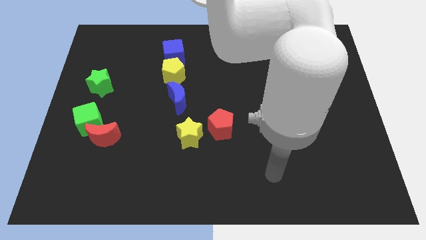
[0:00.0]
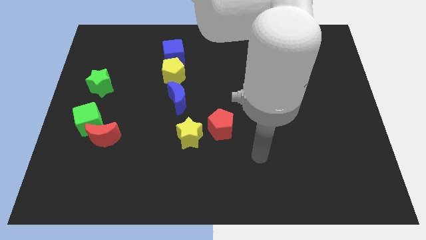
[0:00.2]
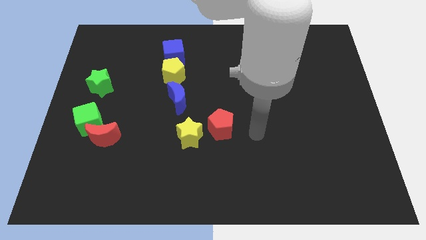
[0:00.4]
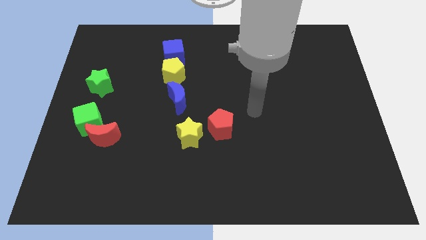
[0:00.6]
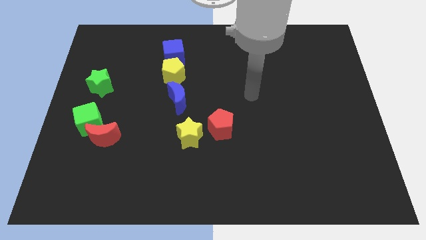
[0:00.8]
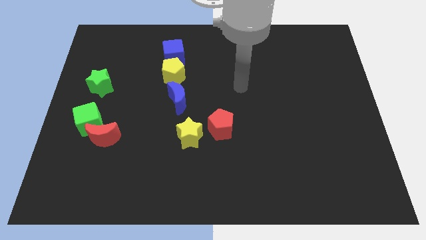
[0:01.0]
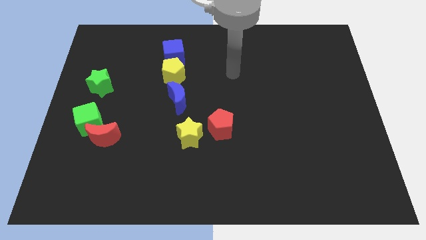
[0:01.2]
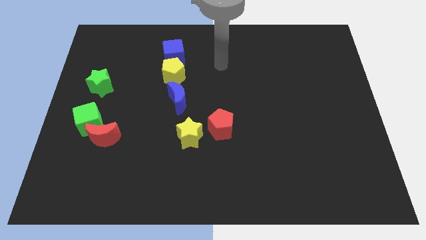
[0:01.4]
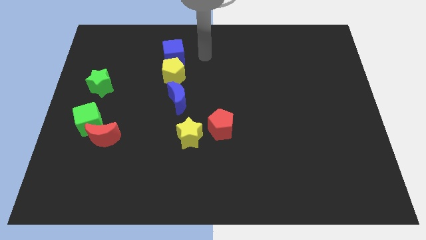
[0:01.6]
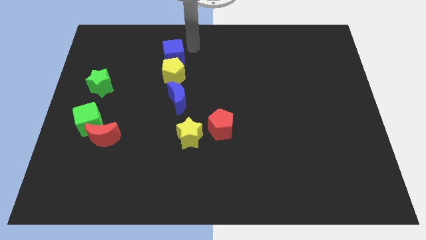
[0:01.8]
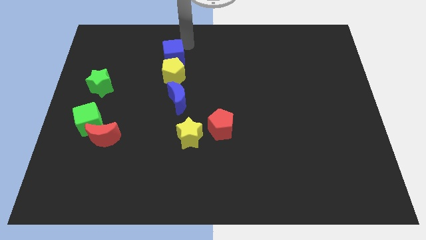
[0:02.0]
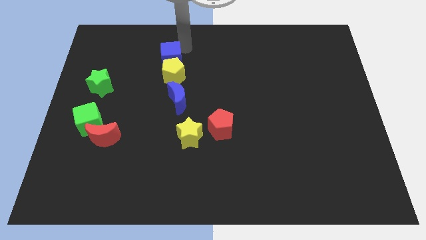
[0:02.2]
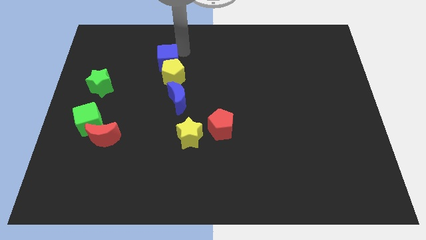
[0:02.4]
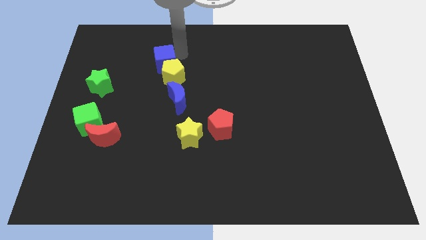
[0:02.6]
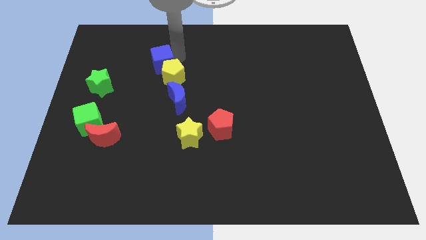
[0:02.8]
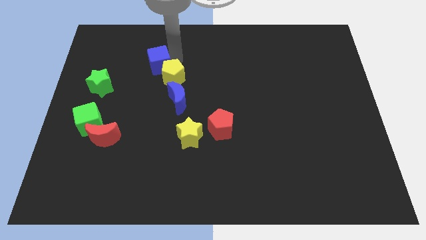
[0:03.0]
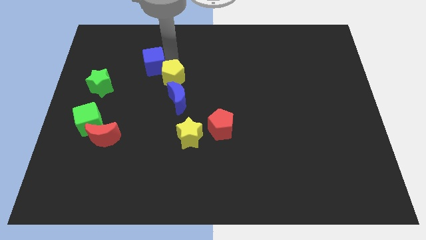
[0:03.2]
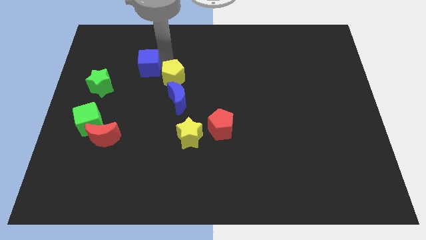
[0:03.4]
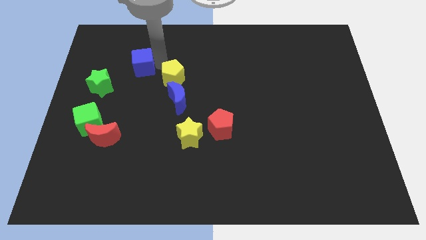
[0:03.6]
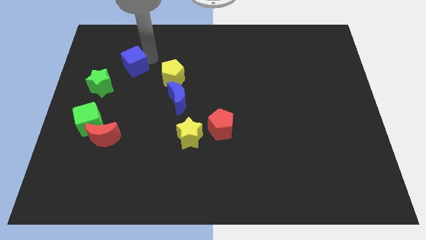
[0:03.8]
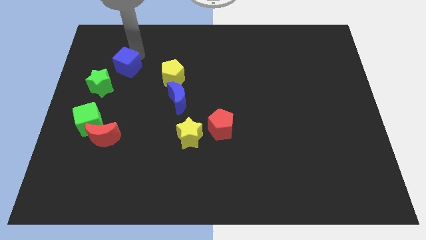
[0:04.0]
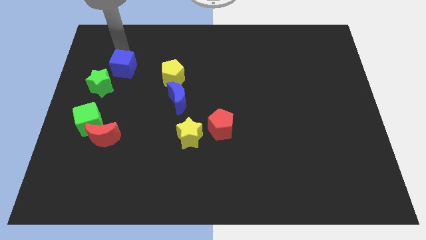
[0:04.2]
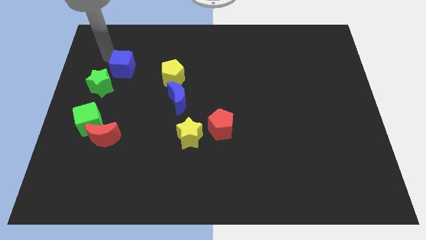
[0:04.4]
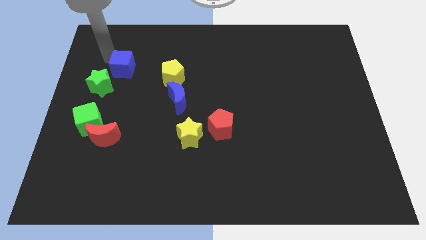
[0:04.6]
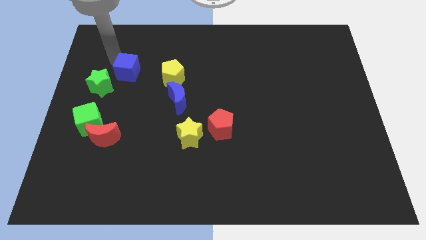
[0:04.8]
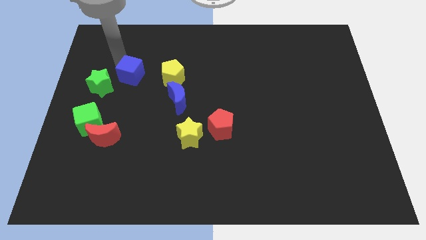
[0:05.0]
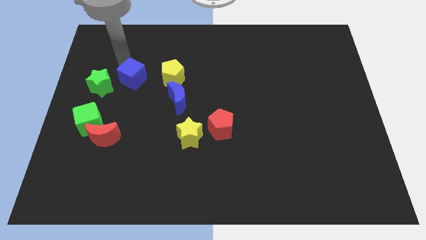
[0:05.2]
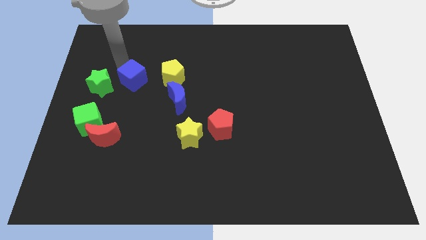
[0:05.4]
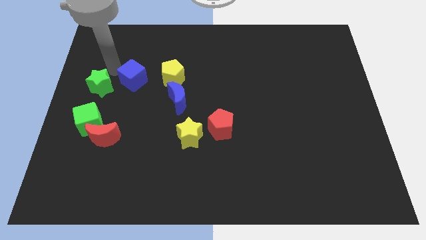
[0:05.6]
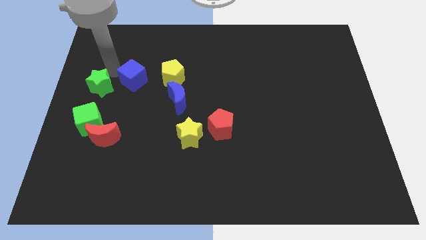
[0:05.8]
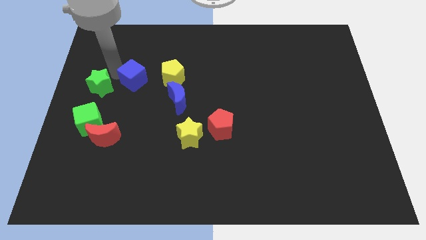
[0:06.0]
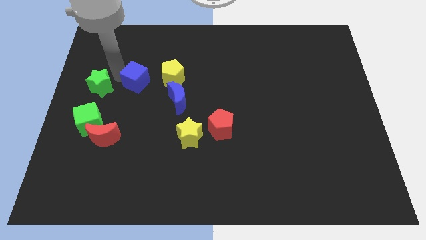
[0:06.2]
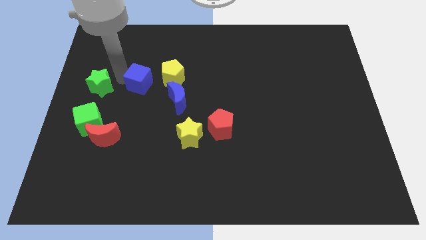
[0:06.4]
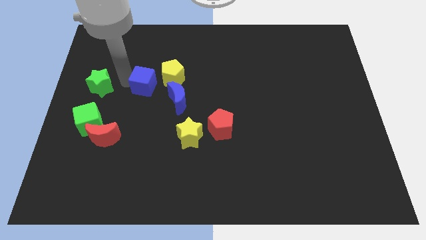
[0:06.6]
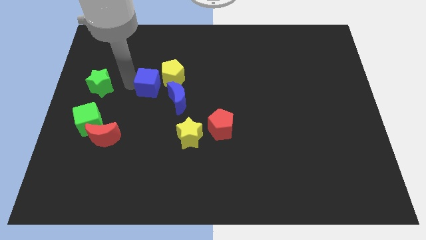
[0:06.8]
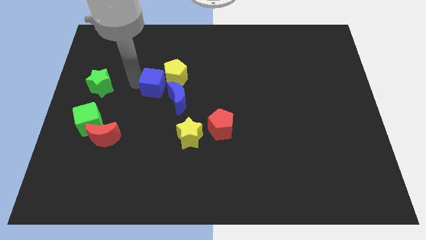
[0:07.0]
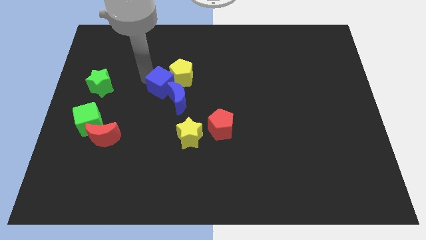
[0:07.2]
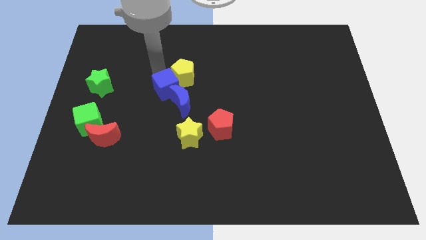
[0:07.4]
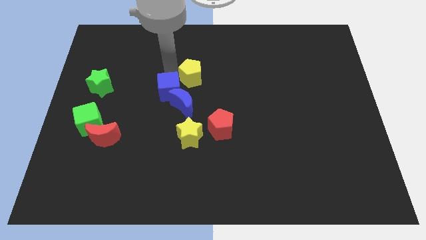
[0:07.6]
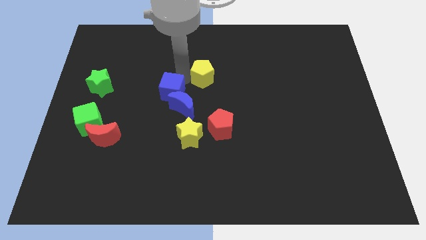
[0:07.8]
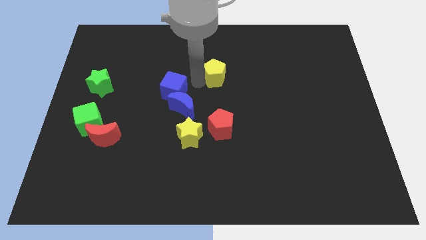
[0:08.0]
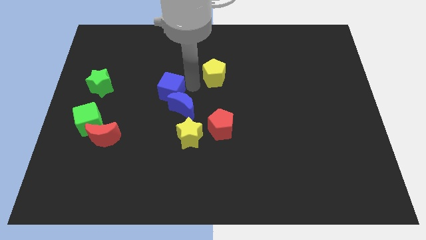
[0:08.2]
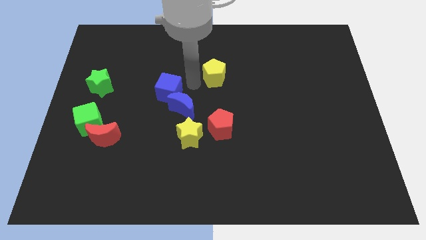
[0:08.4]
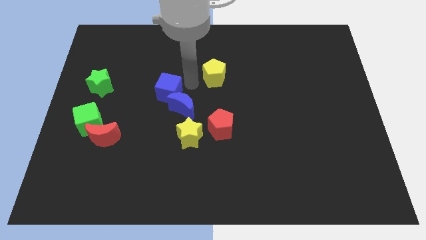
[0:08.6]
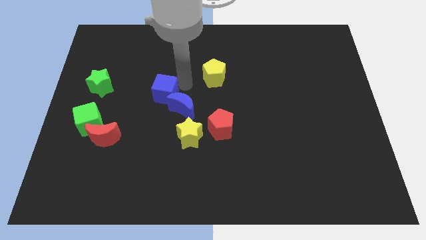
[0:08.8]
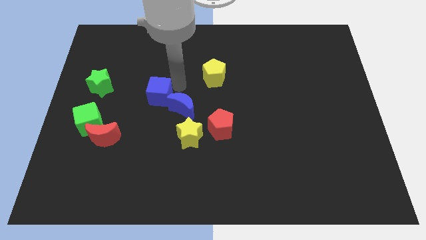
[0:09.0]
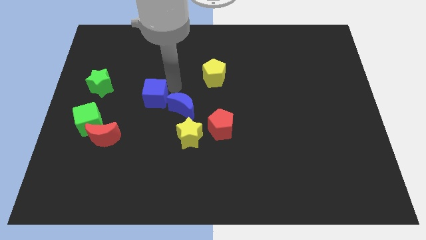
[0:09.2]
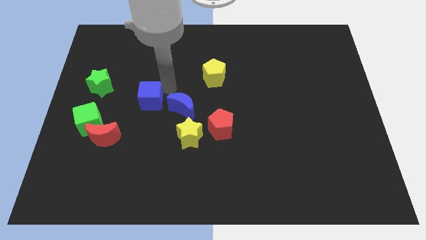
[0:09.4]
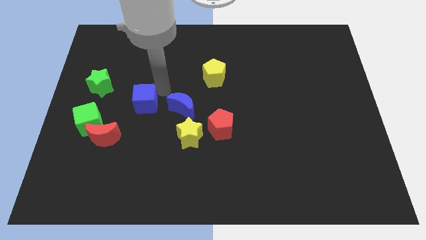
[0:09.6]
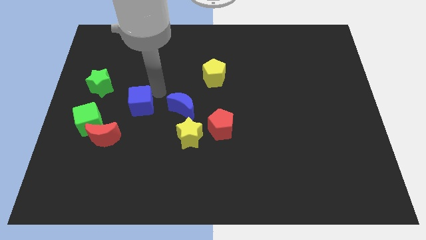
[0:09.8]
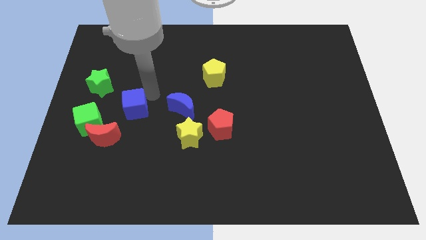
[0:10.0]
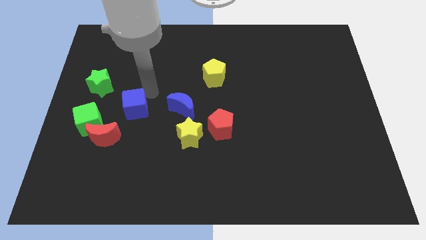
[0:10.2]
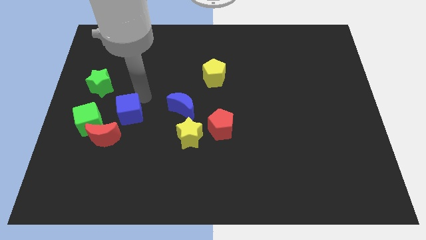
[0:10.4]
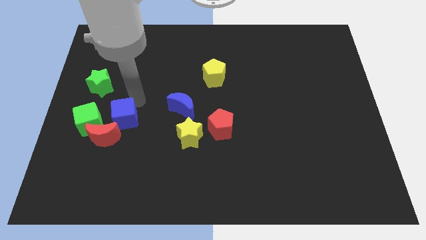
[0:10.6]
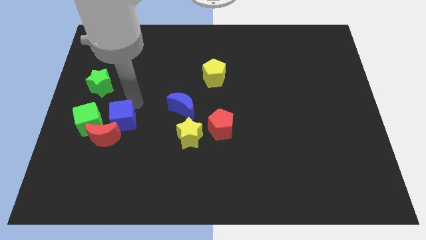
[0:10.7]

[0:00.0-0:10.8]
put the blue cube towards the red moon

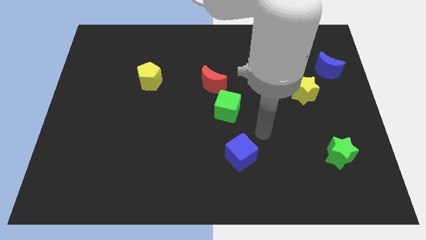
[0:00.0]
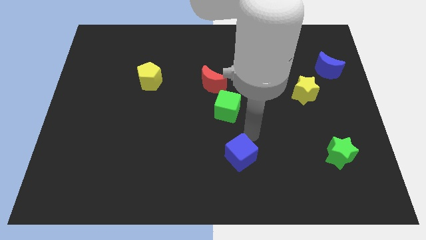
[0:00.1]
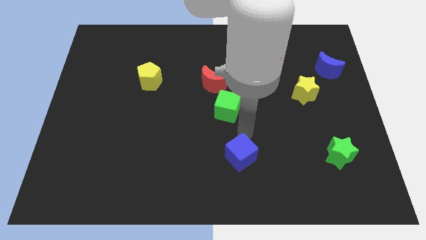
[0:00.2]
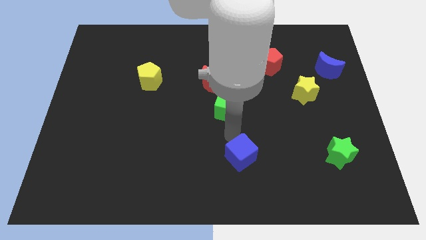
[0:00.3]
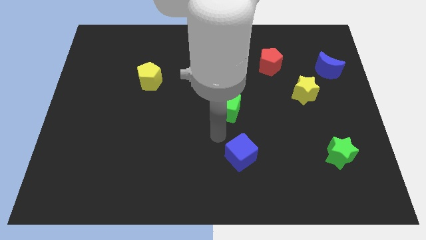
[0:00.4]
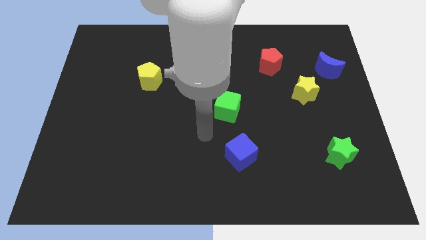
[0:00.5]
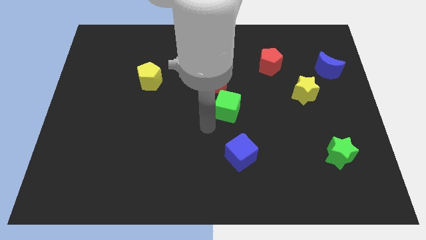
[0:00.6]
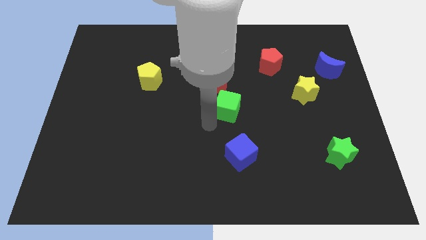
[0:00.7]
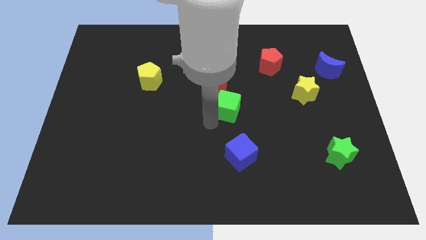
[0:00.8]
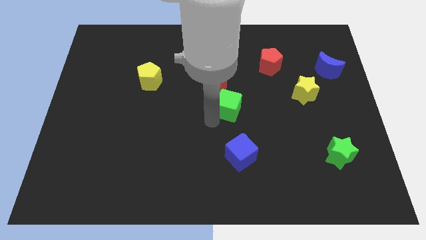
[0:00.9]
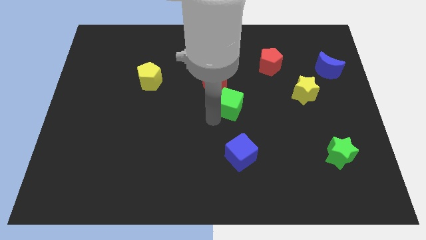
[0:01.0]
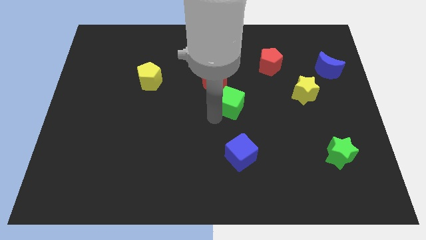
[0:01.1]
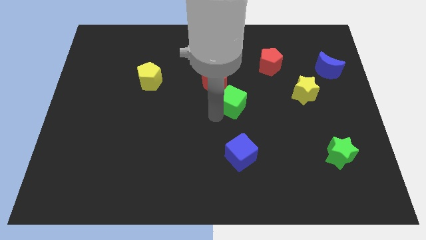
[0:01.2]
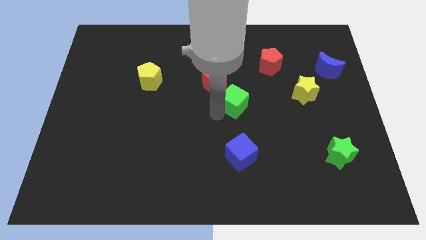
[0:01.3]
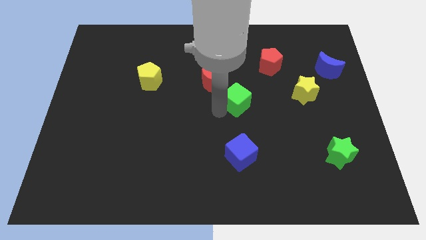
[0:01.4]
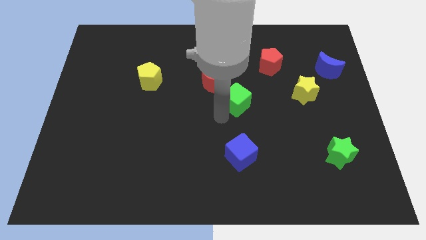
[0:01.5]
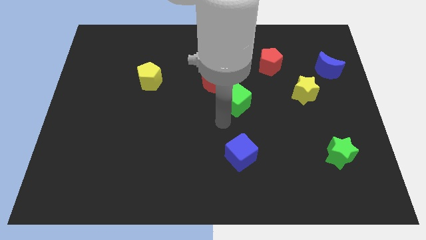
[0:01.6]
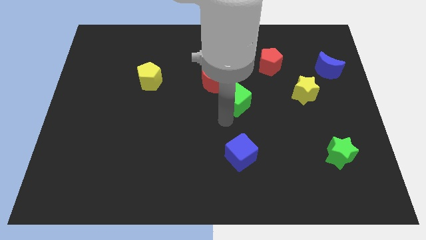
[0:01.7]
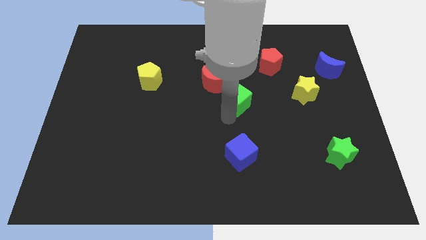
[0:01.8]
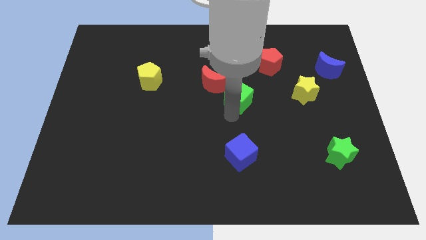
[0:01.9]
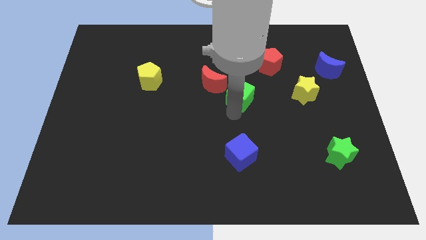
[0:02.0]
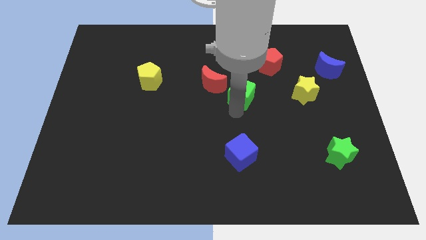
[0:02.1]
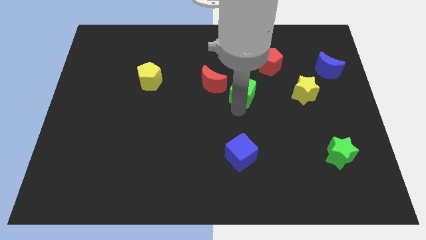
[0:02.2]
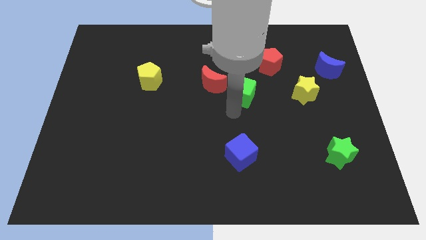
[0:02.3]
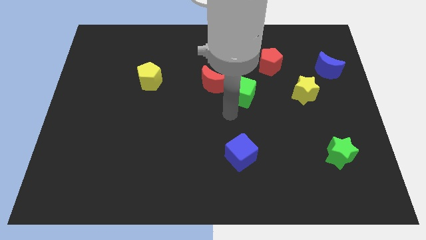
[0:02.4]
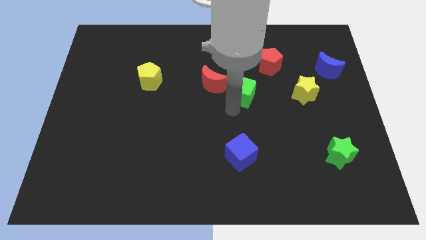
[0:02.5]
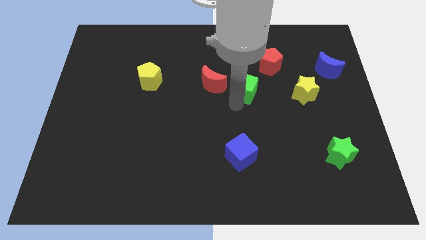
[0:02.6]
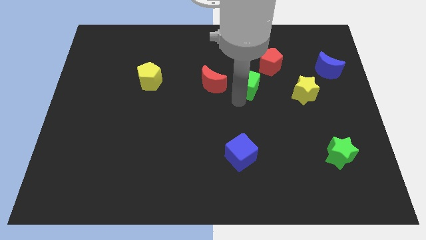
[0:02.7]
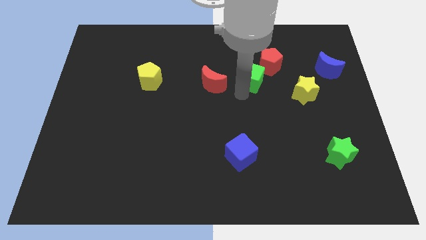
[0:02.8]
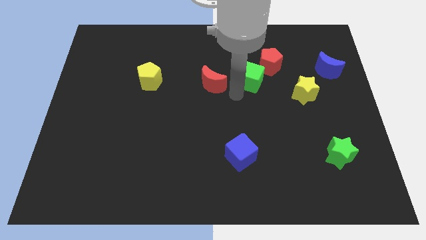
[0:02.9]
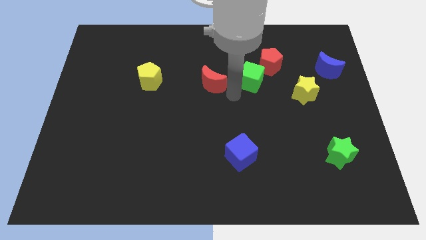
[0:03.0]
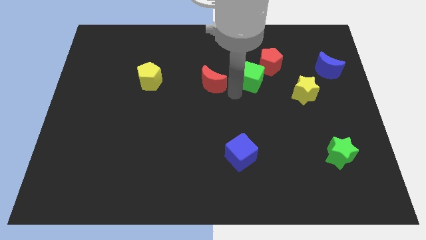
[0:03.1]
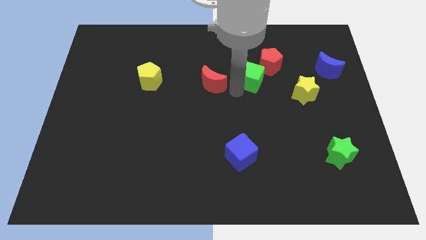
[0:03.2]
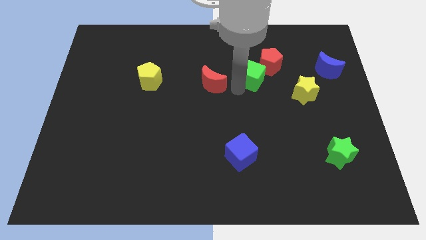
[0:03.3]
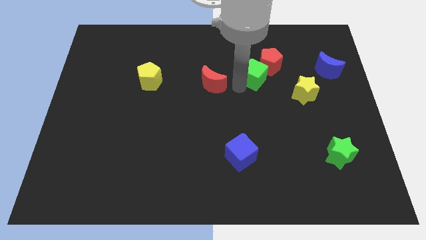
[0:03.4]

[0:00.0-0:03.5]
push the green cube next to the red pentagon
